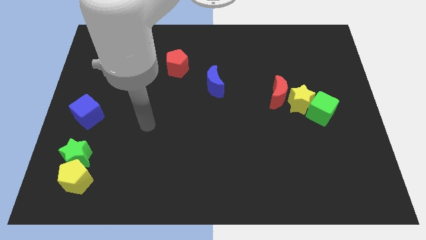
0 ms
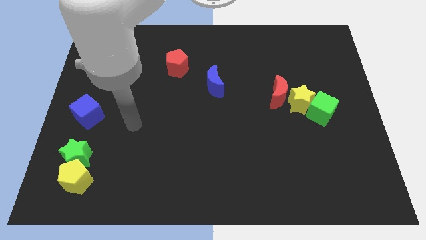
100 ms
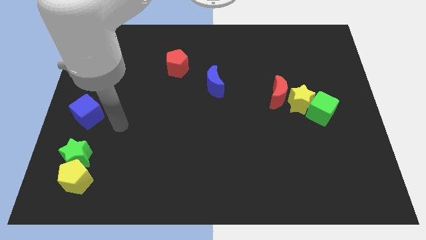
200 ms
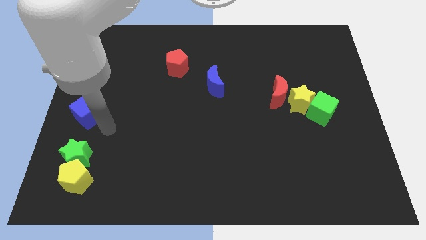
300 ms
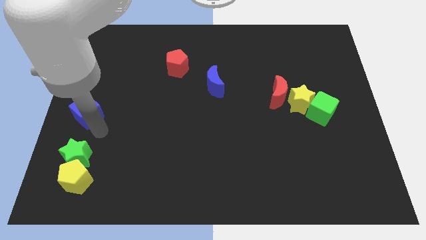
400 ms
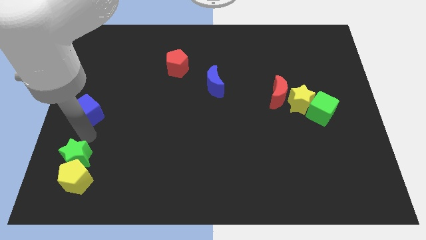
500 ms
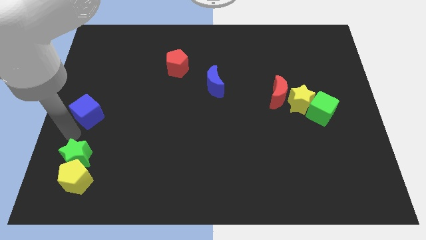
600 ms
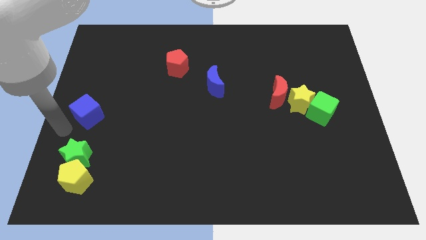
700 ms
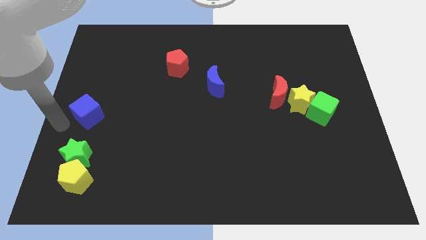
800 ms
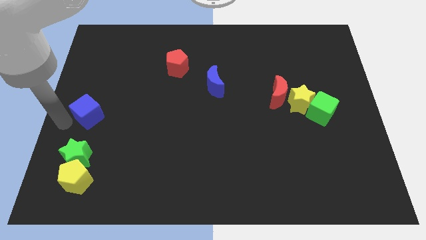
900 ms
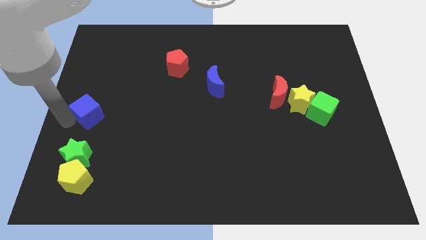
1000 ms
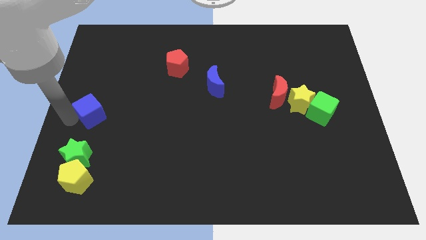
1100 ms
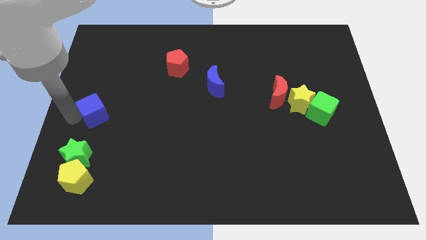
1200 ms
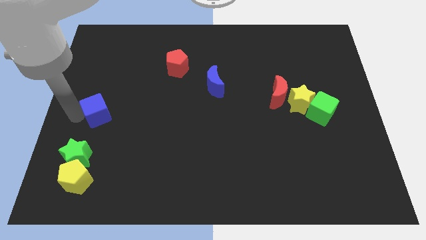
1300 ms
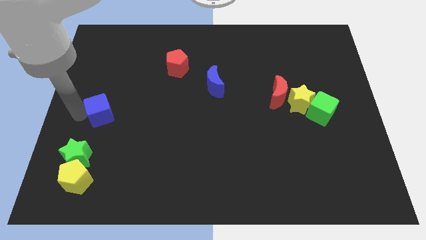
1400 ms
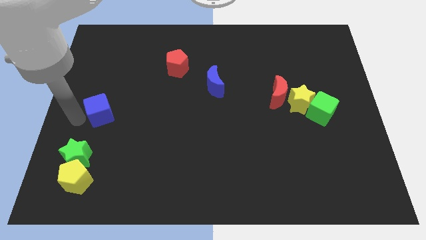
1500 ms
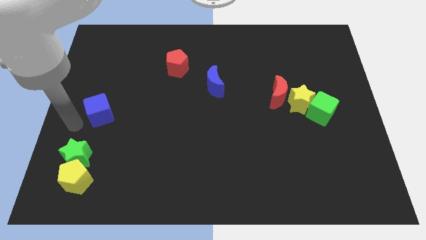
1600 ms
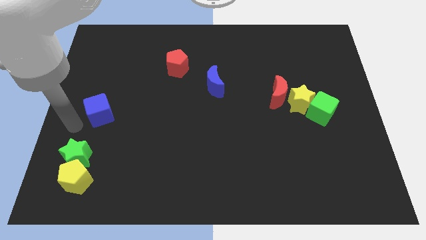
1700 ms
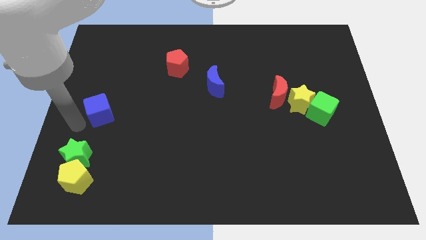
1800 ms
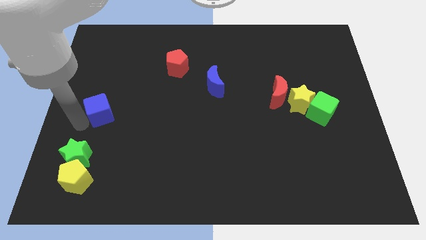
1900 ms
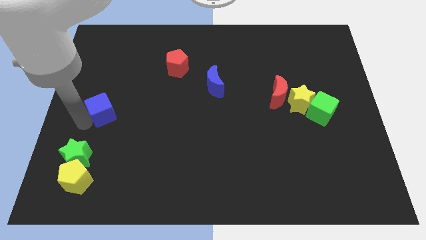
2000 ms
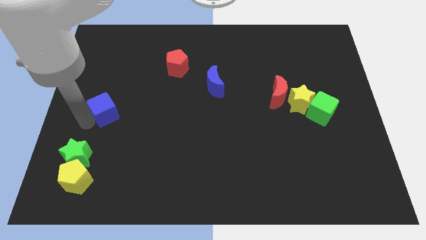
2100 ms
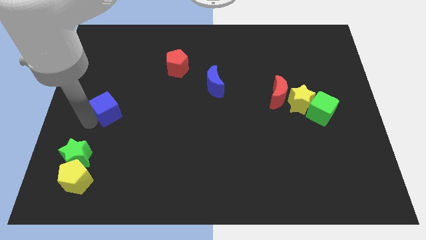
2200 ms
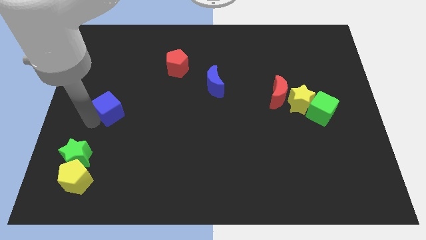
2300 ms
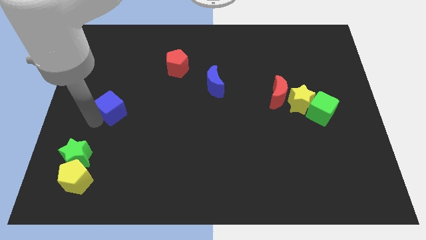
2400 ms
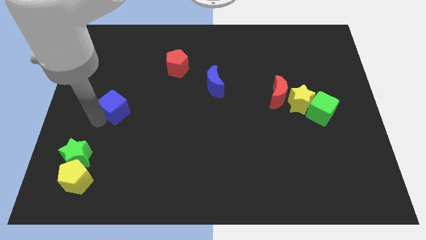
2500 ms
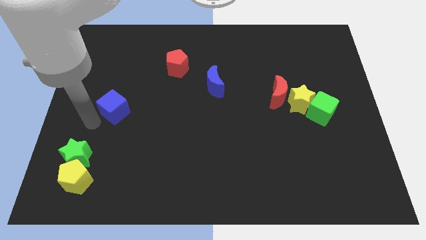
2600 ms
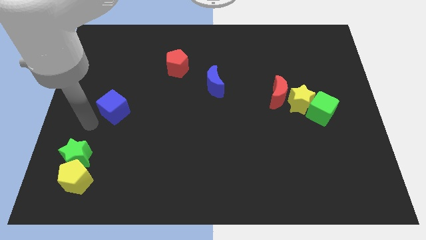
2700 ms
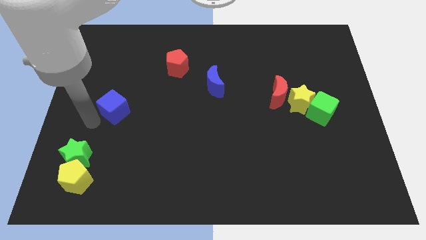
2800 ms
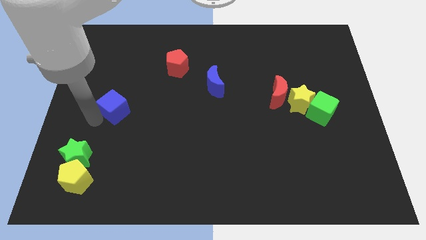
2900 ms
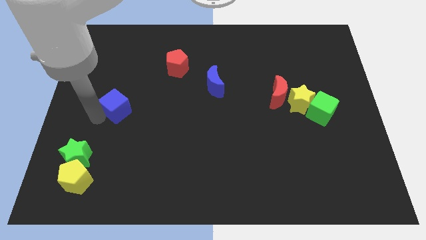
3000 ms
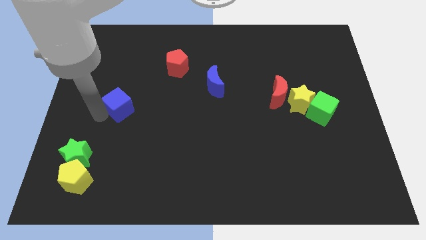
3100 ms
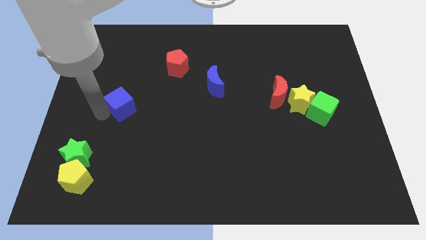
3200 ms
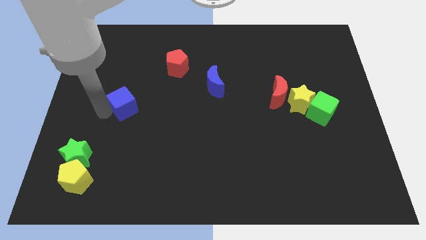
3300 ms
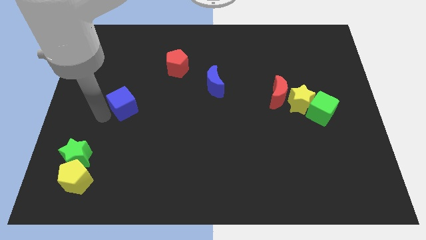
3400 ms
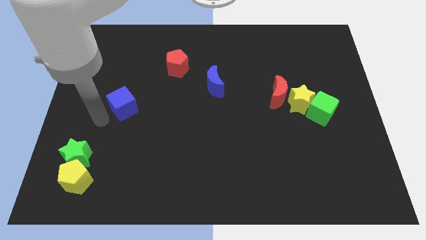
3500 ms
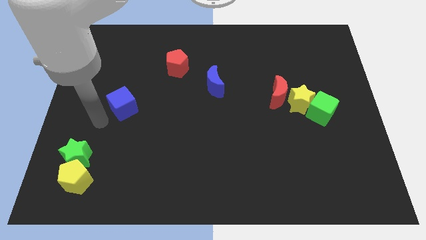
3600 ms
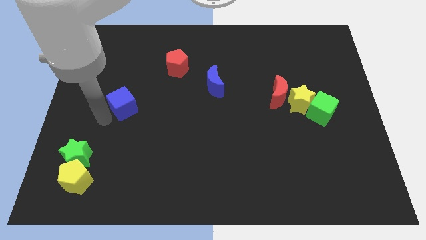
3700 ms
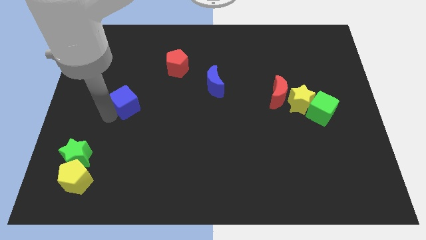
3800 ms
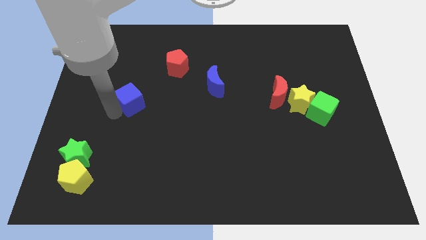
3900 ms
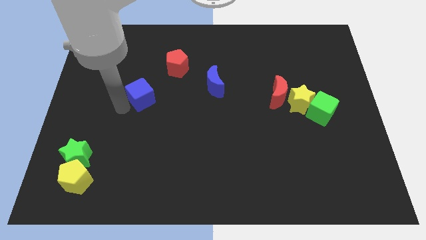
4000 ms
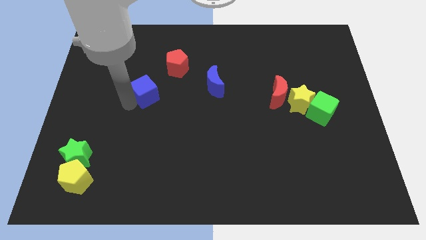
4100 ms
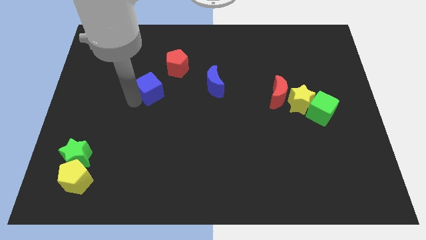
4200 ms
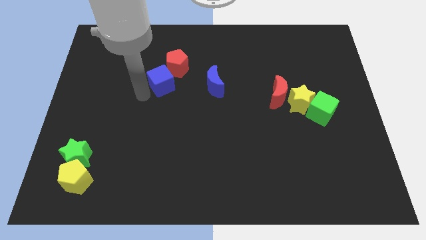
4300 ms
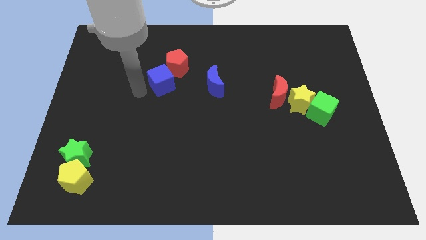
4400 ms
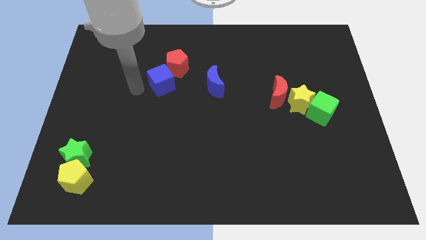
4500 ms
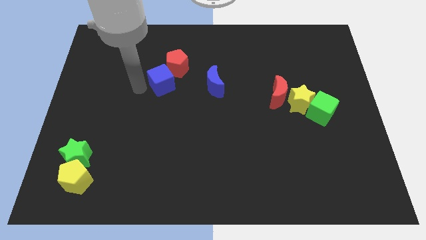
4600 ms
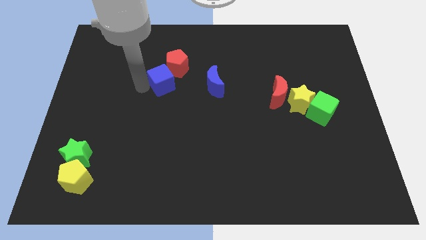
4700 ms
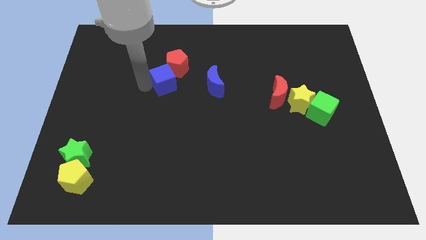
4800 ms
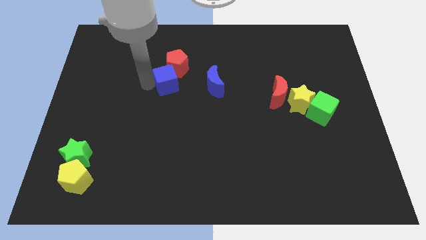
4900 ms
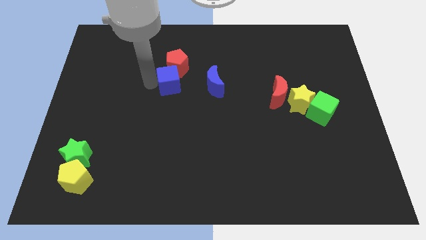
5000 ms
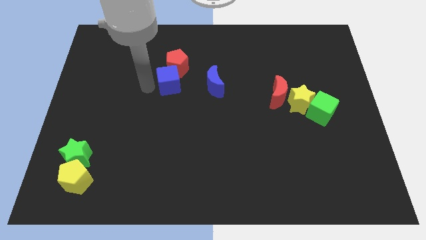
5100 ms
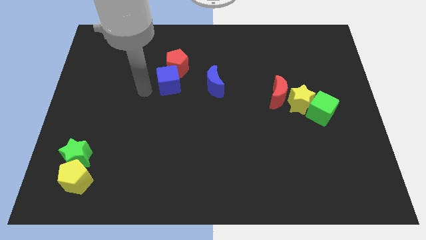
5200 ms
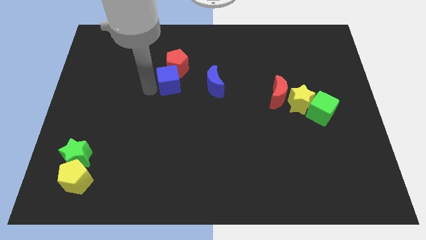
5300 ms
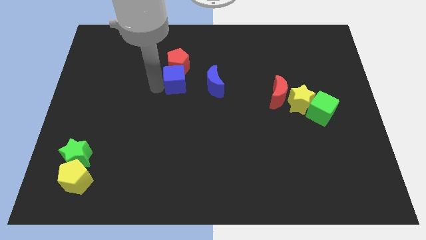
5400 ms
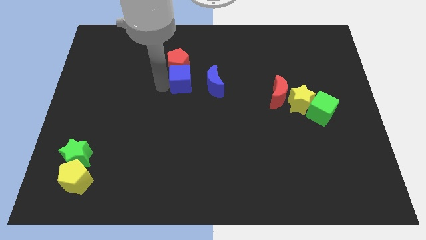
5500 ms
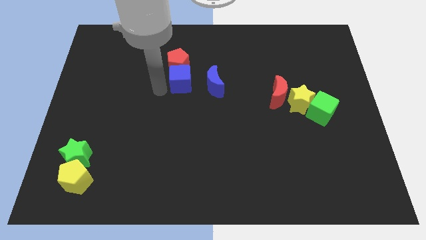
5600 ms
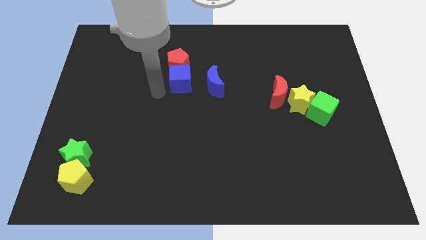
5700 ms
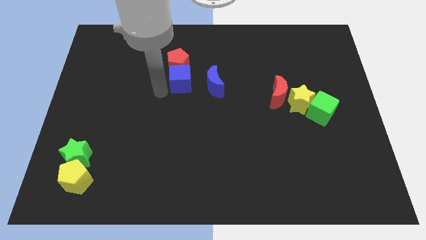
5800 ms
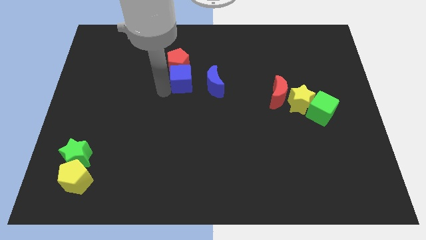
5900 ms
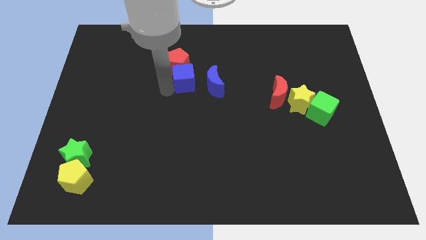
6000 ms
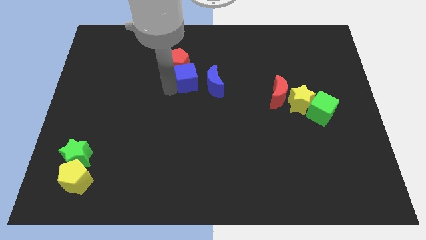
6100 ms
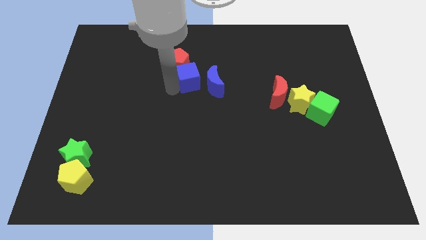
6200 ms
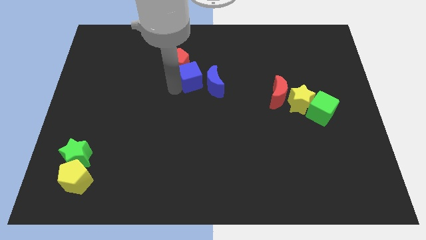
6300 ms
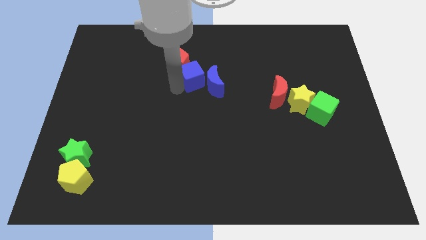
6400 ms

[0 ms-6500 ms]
put the blue cube to the right side of the red pentagon

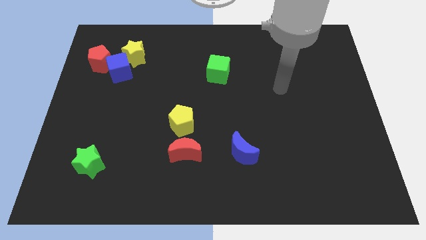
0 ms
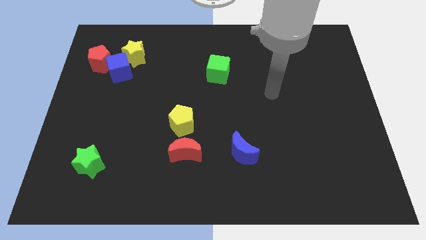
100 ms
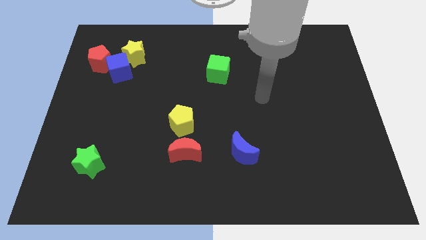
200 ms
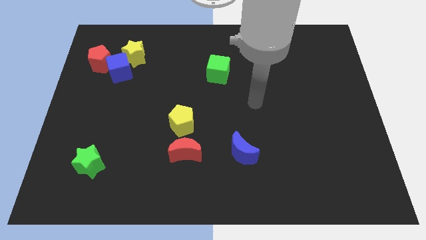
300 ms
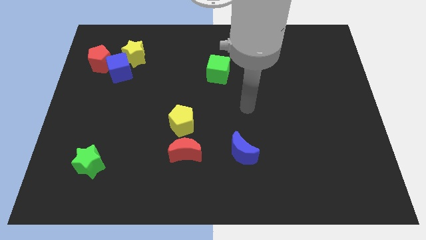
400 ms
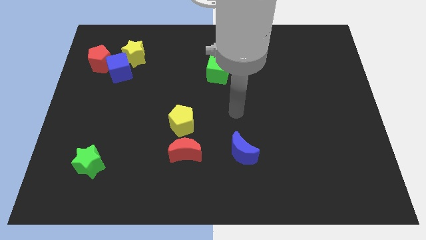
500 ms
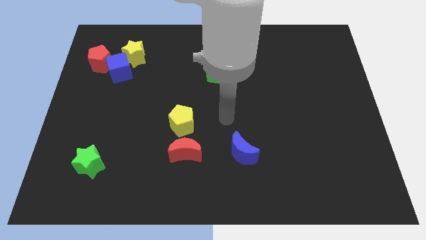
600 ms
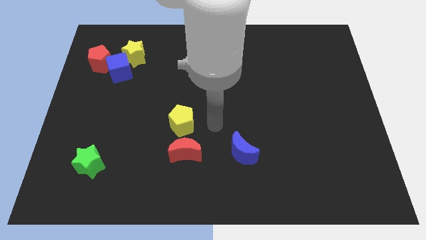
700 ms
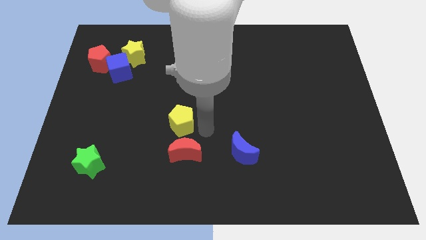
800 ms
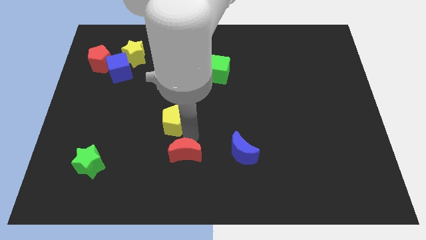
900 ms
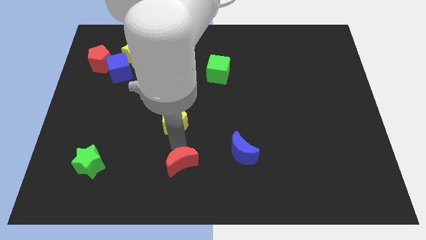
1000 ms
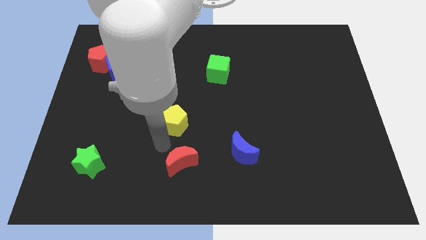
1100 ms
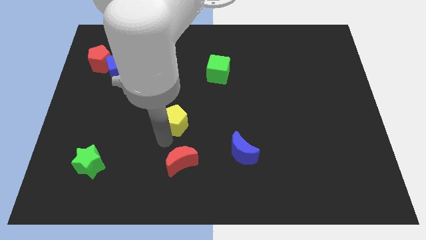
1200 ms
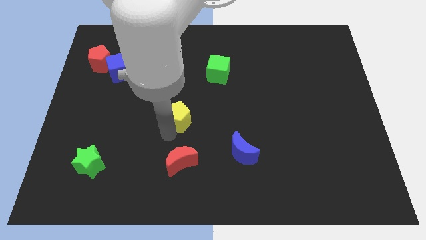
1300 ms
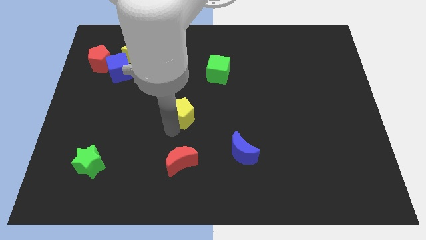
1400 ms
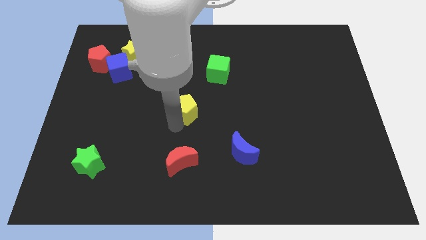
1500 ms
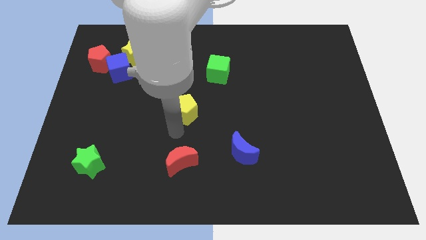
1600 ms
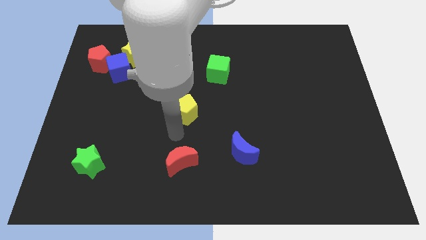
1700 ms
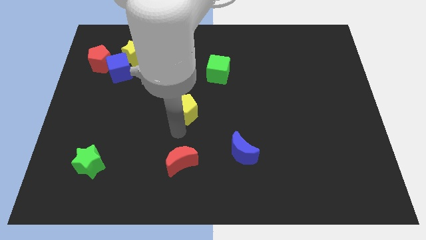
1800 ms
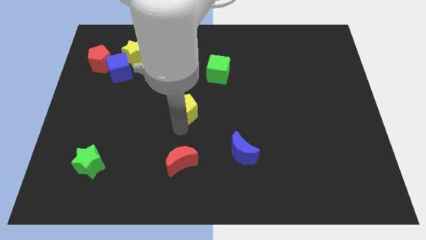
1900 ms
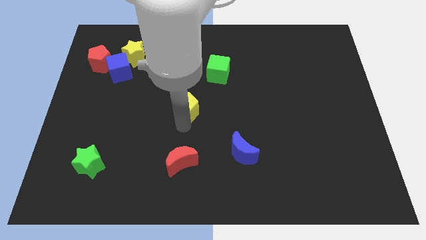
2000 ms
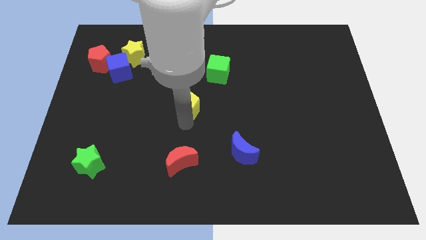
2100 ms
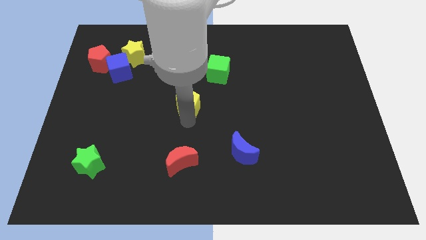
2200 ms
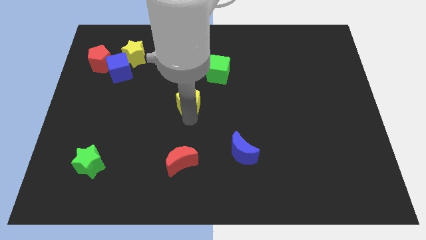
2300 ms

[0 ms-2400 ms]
move the yellow pentagon to the bottom left side of the green cube
